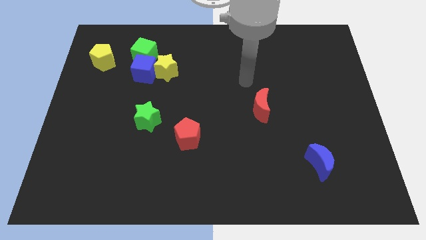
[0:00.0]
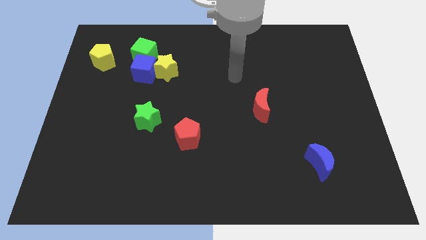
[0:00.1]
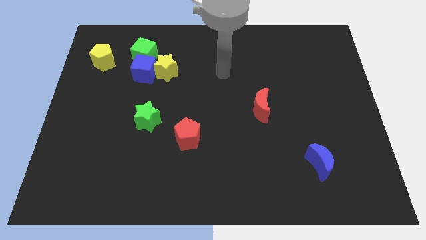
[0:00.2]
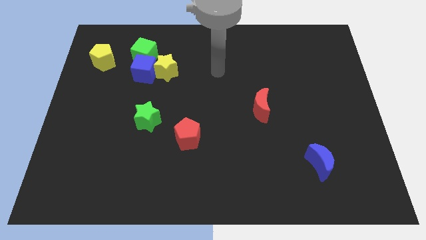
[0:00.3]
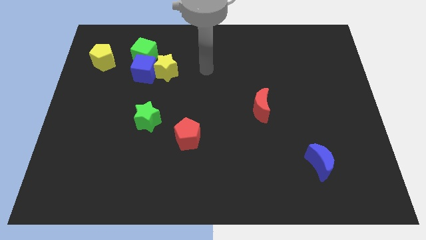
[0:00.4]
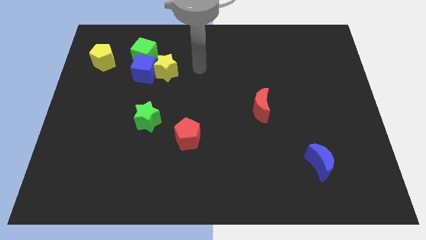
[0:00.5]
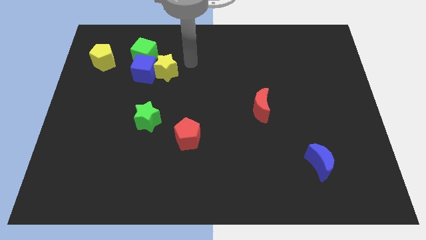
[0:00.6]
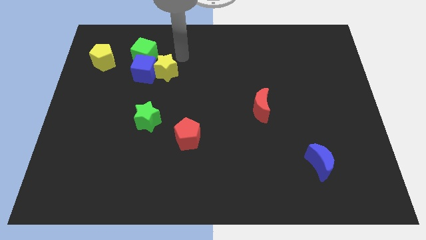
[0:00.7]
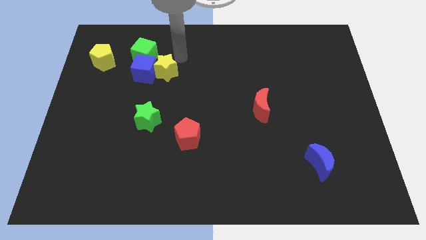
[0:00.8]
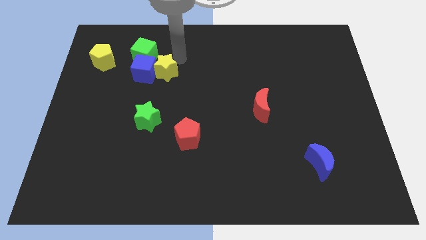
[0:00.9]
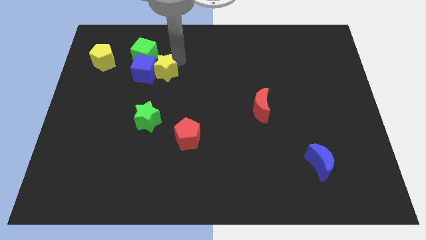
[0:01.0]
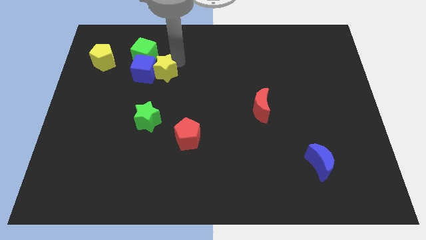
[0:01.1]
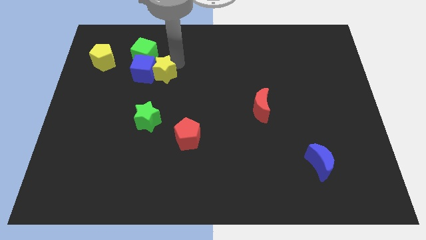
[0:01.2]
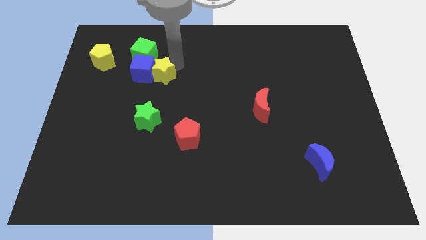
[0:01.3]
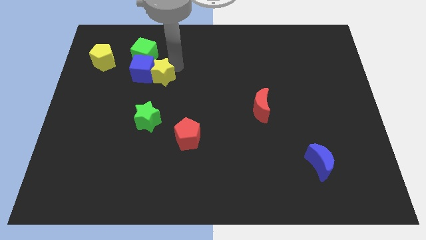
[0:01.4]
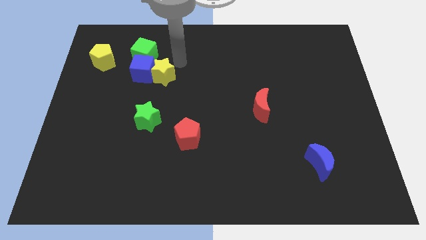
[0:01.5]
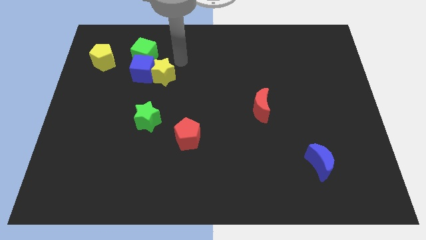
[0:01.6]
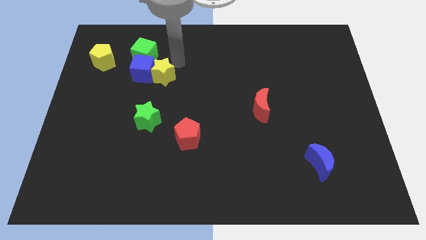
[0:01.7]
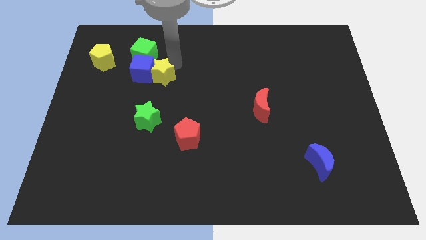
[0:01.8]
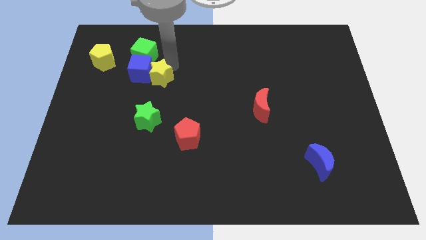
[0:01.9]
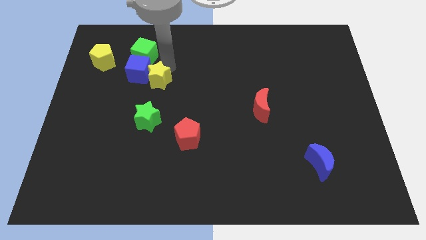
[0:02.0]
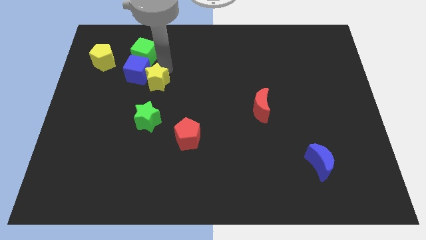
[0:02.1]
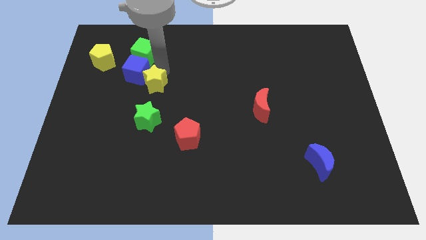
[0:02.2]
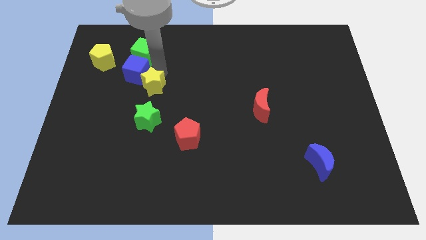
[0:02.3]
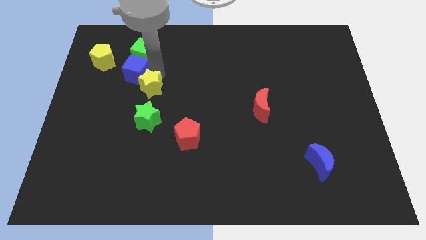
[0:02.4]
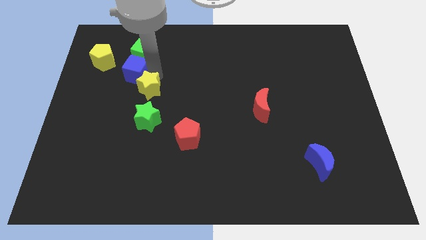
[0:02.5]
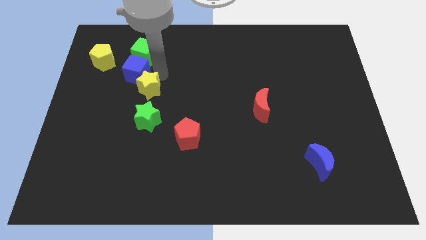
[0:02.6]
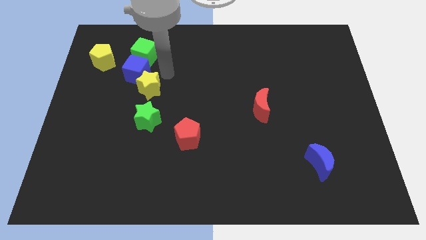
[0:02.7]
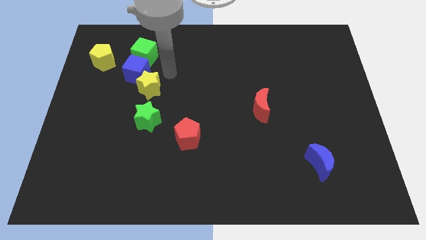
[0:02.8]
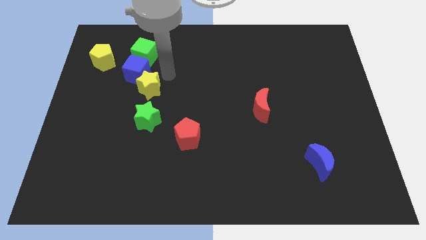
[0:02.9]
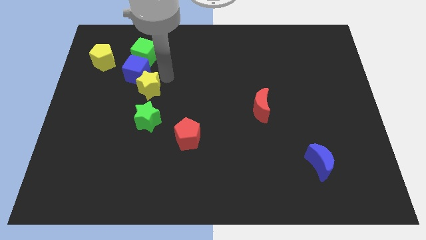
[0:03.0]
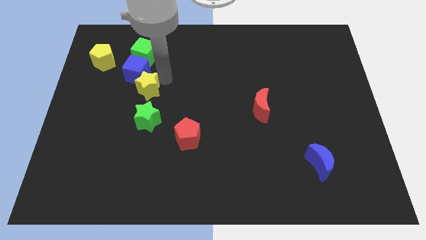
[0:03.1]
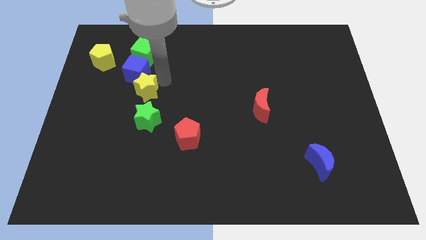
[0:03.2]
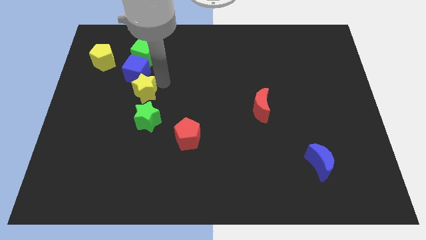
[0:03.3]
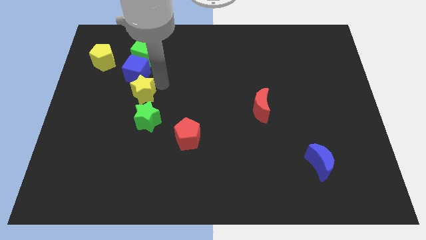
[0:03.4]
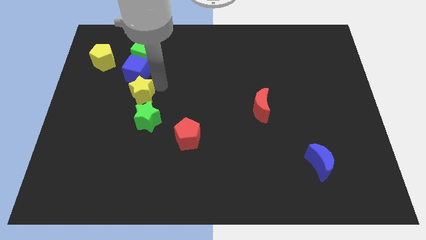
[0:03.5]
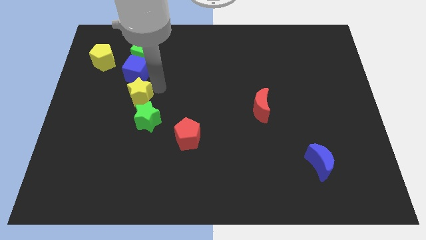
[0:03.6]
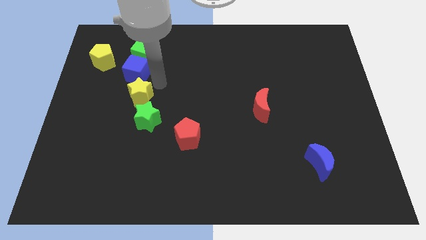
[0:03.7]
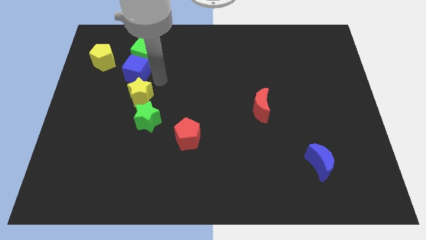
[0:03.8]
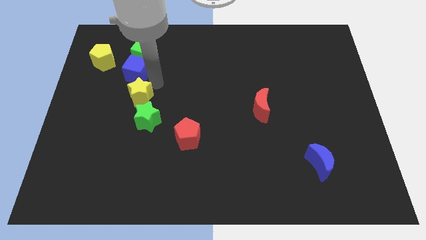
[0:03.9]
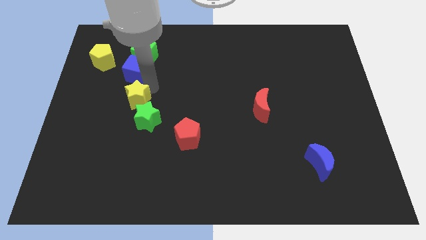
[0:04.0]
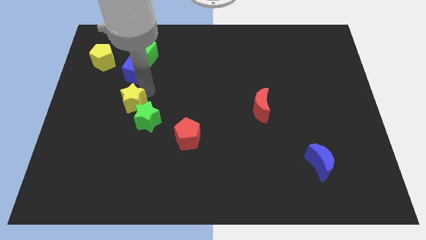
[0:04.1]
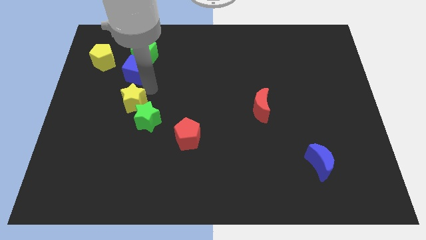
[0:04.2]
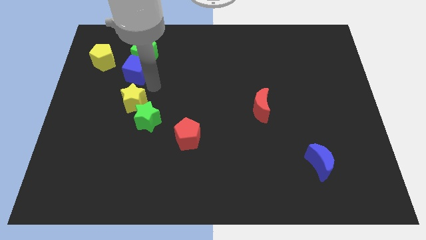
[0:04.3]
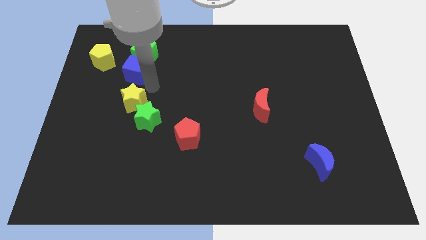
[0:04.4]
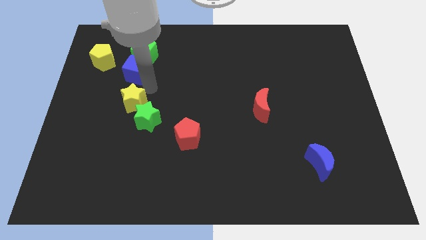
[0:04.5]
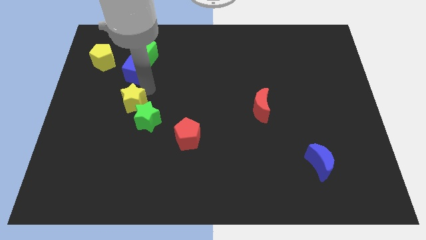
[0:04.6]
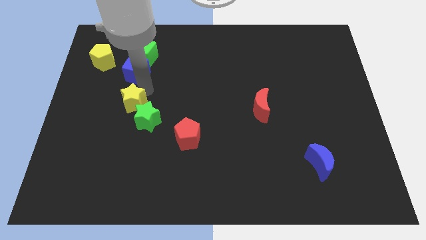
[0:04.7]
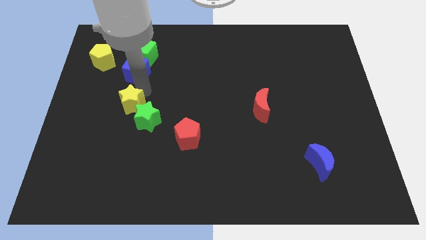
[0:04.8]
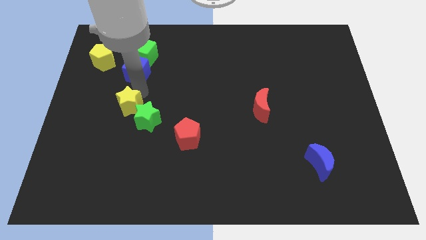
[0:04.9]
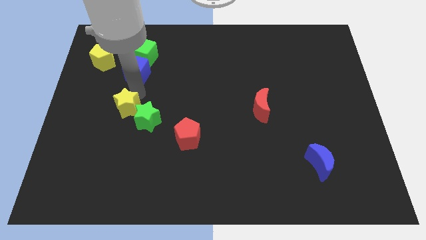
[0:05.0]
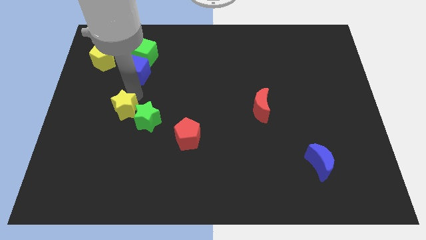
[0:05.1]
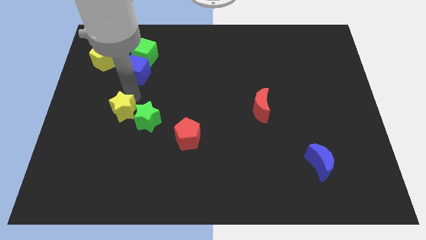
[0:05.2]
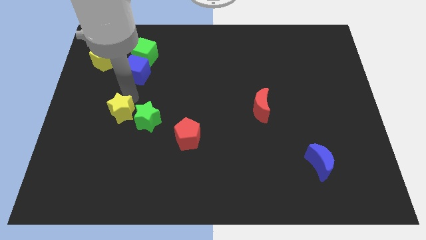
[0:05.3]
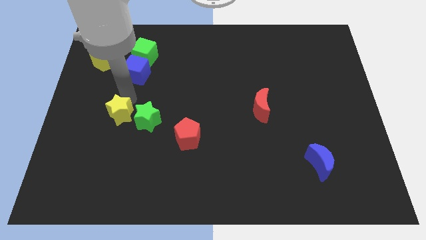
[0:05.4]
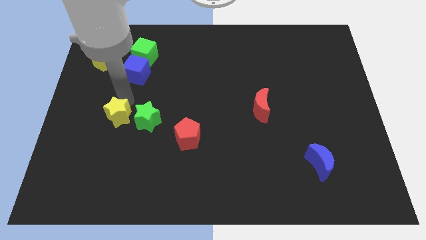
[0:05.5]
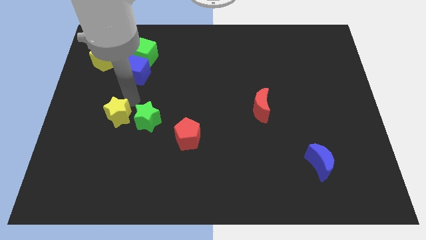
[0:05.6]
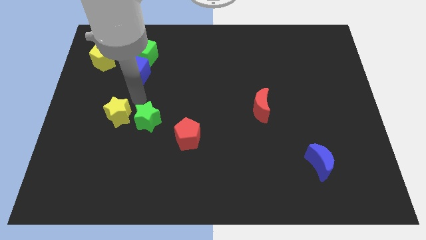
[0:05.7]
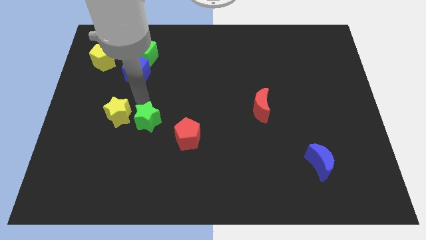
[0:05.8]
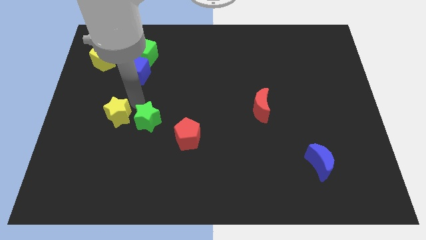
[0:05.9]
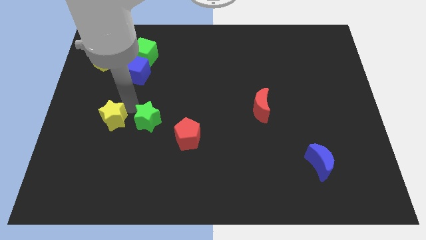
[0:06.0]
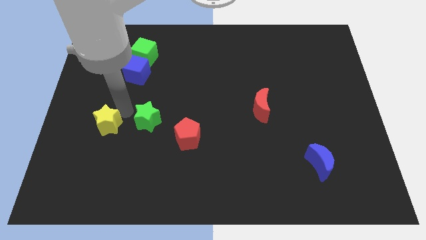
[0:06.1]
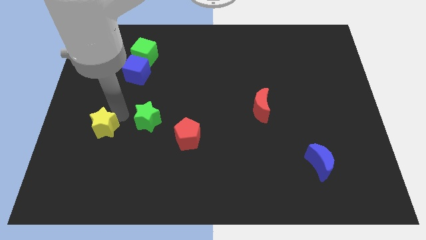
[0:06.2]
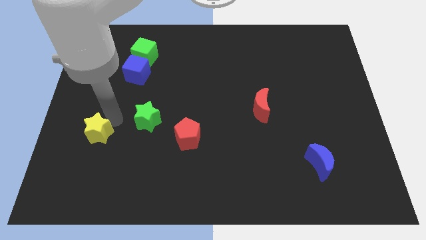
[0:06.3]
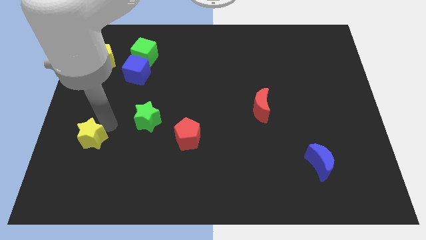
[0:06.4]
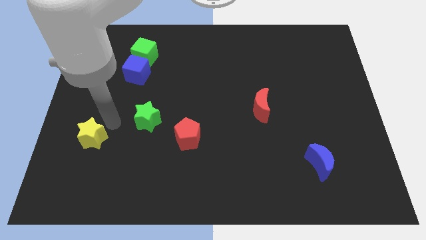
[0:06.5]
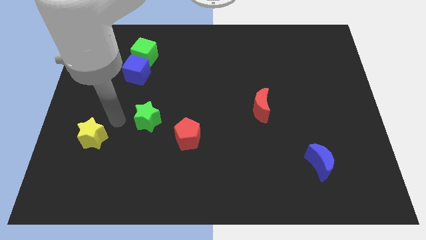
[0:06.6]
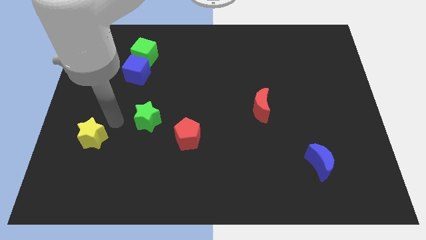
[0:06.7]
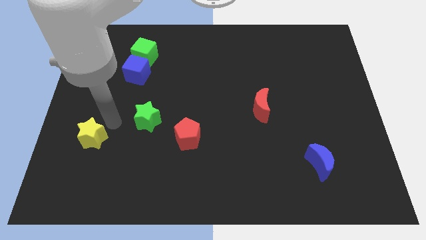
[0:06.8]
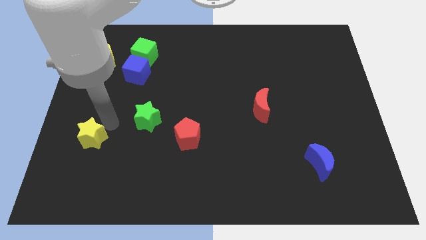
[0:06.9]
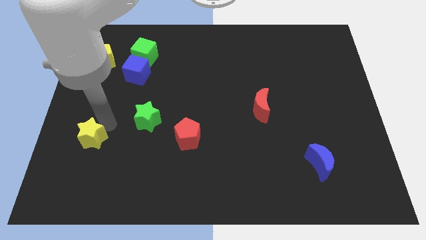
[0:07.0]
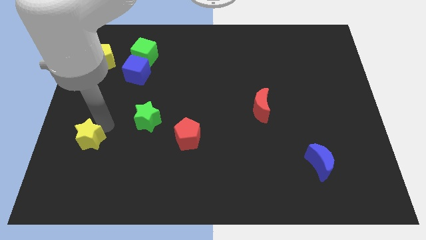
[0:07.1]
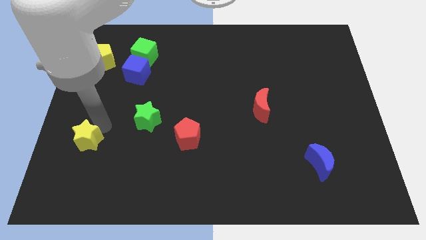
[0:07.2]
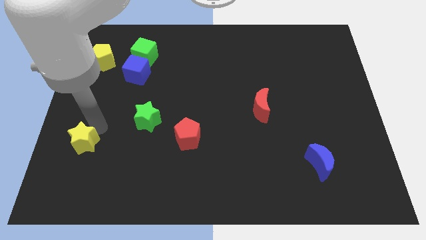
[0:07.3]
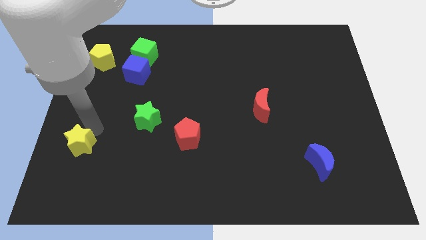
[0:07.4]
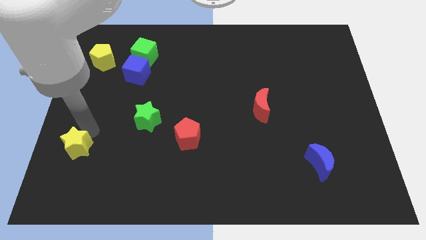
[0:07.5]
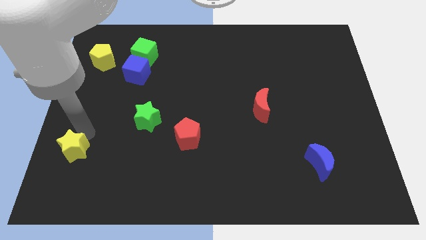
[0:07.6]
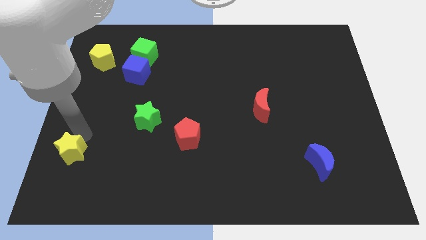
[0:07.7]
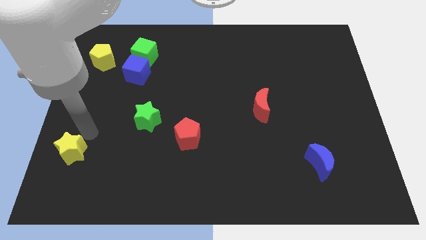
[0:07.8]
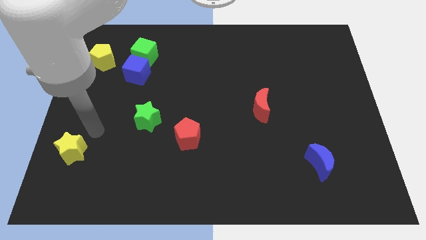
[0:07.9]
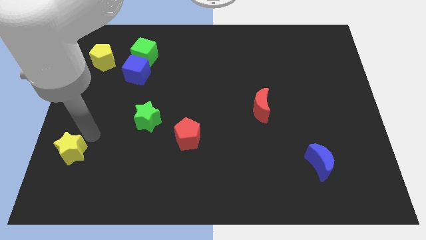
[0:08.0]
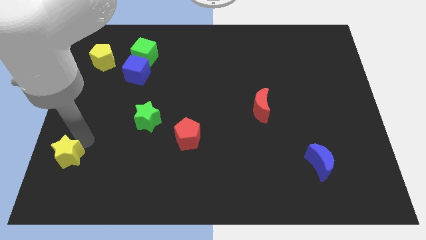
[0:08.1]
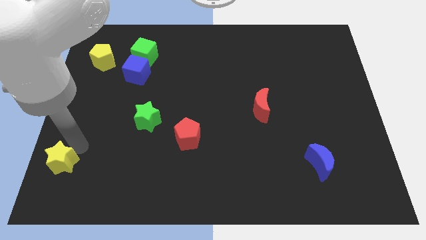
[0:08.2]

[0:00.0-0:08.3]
move the yellow star to the bottom left
